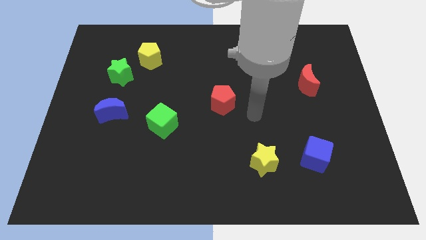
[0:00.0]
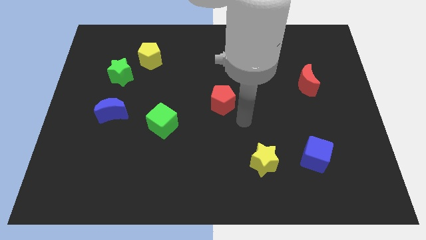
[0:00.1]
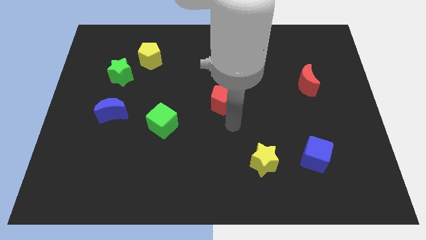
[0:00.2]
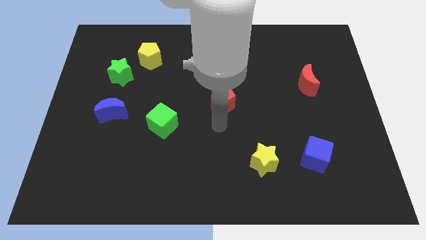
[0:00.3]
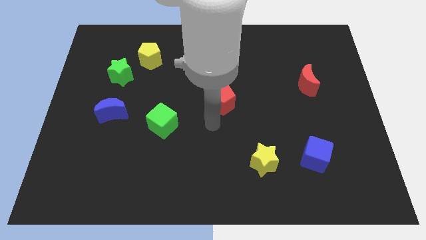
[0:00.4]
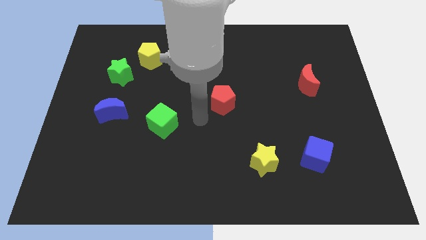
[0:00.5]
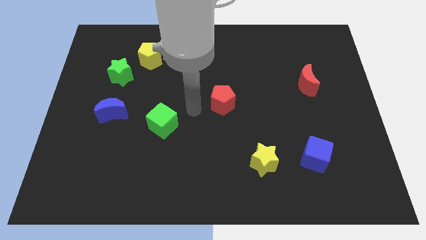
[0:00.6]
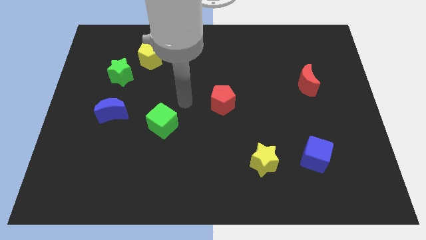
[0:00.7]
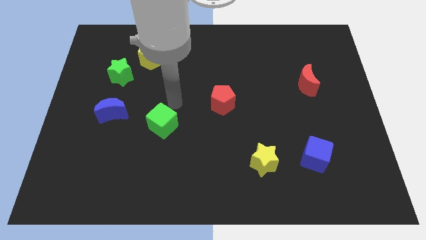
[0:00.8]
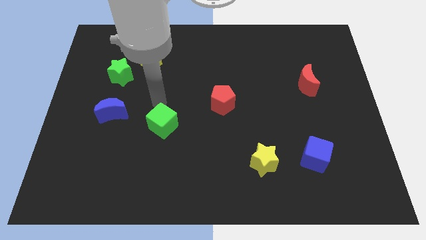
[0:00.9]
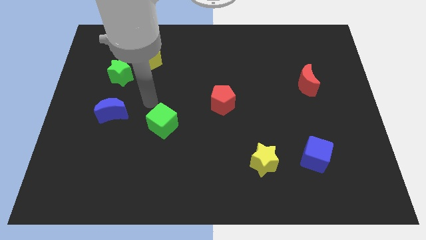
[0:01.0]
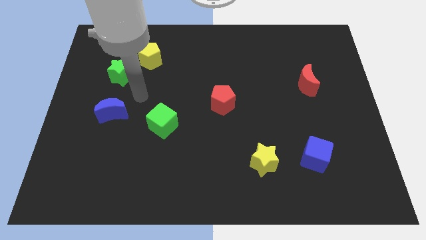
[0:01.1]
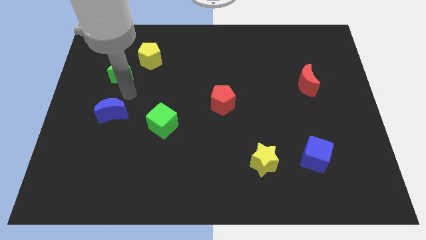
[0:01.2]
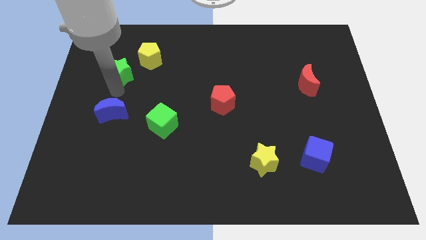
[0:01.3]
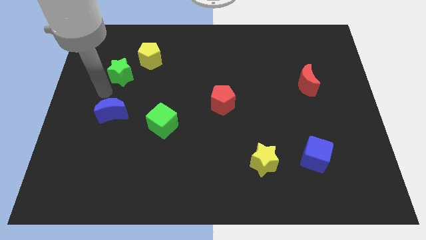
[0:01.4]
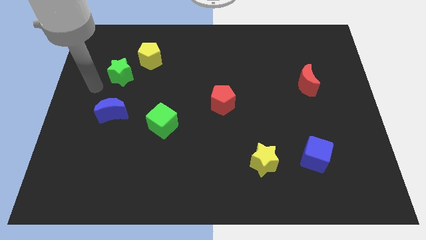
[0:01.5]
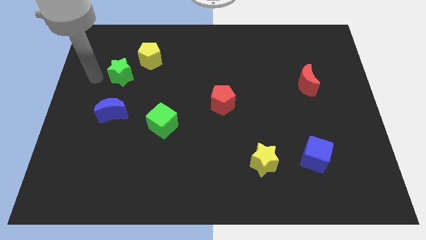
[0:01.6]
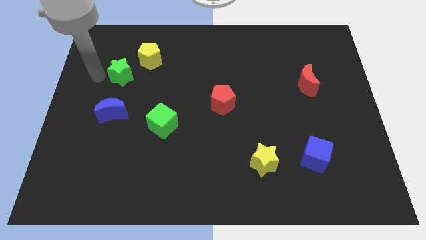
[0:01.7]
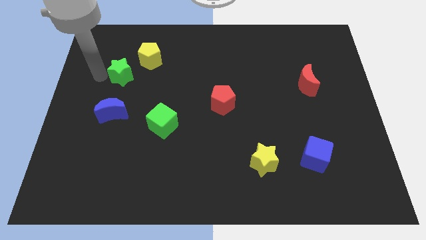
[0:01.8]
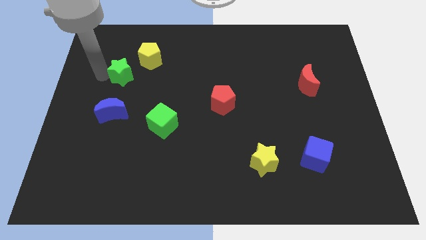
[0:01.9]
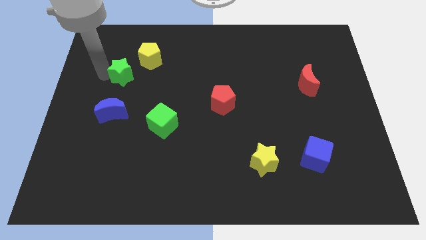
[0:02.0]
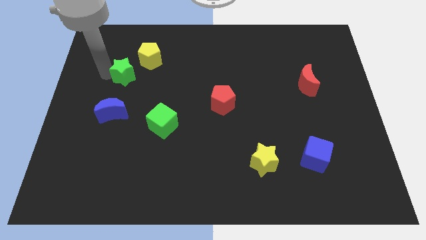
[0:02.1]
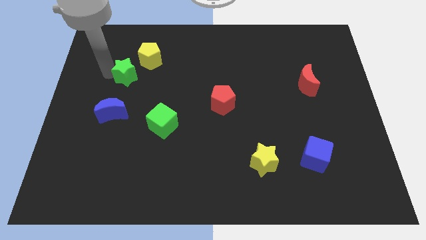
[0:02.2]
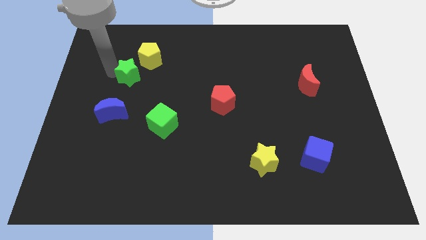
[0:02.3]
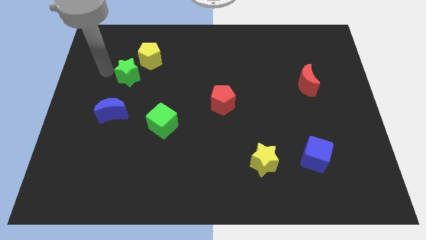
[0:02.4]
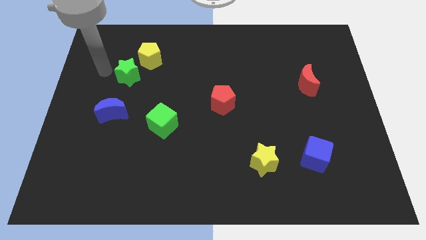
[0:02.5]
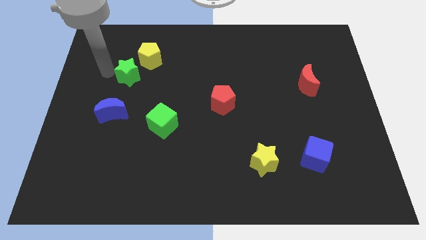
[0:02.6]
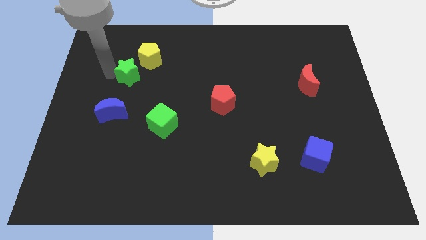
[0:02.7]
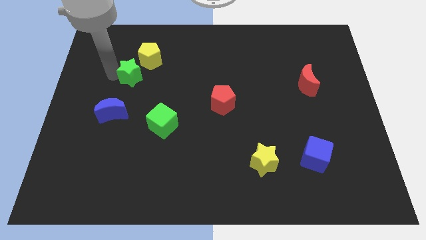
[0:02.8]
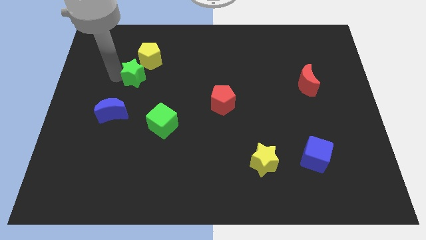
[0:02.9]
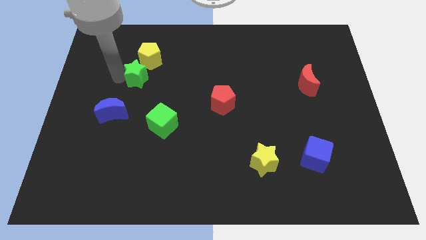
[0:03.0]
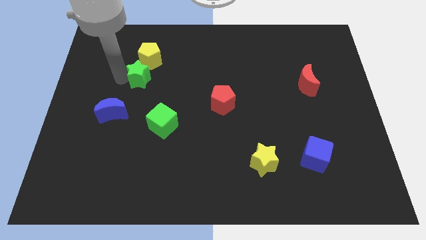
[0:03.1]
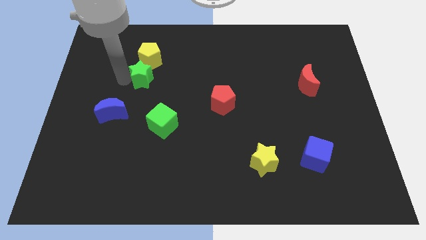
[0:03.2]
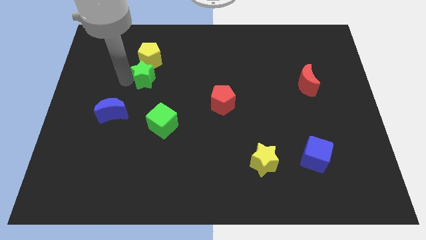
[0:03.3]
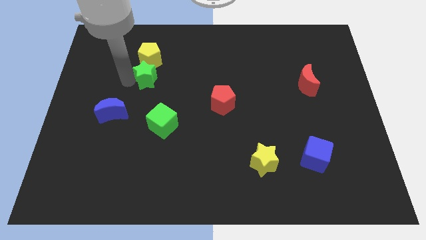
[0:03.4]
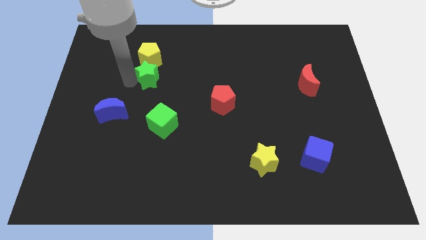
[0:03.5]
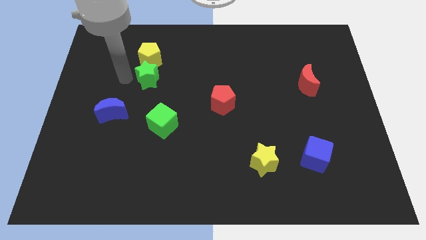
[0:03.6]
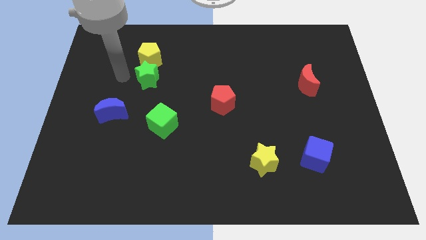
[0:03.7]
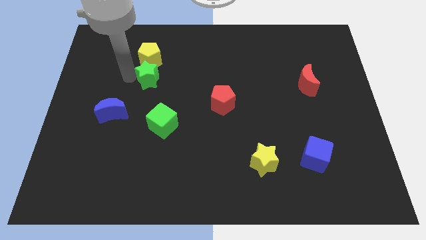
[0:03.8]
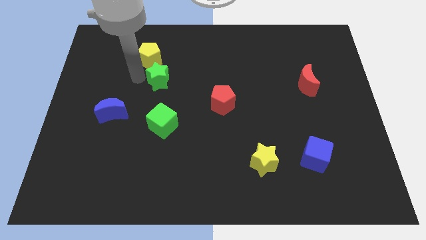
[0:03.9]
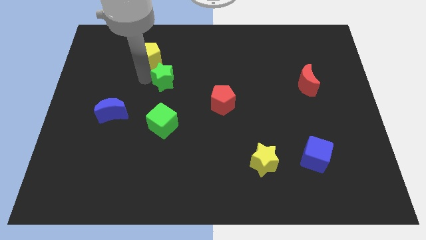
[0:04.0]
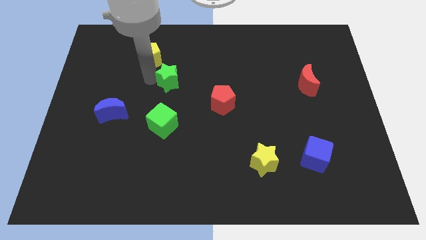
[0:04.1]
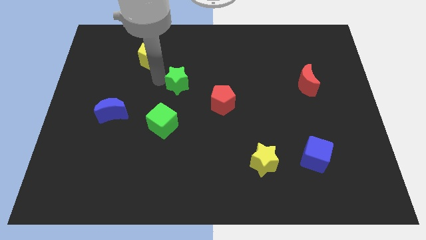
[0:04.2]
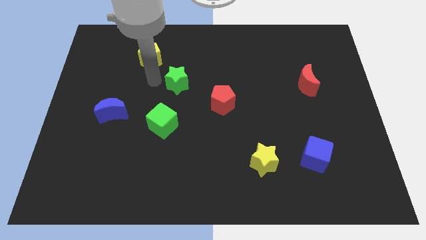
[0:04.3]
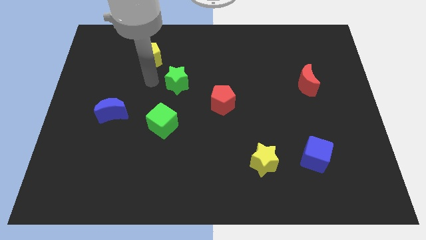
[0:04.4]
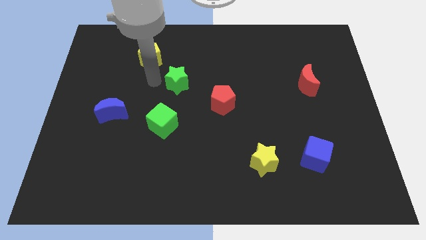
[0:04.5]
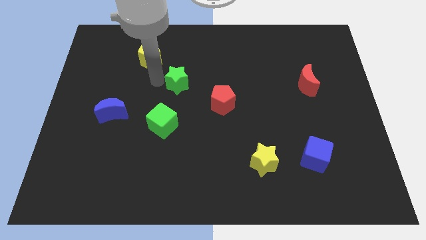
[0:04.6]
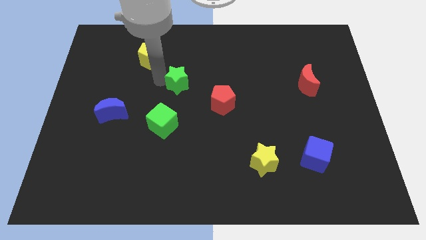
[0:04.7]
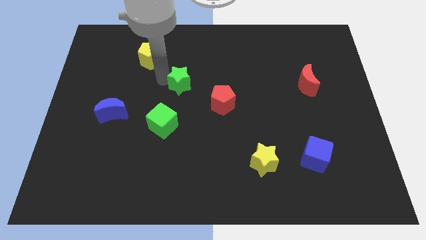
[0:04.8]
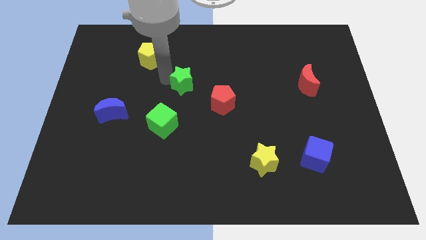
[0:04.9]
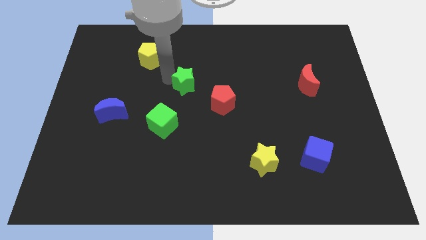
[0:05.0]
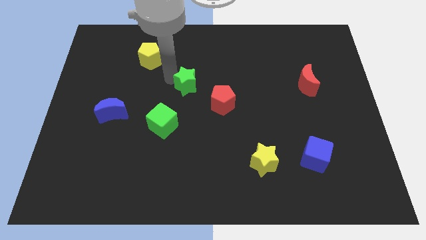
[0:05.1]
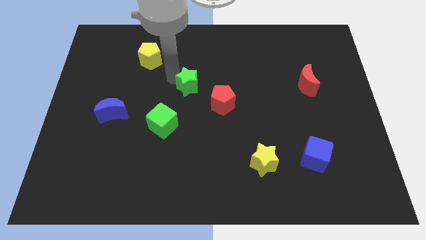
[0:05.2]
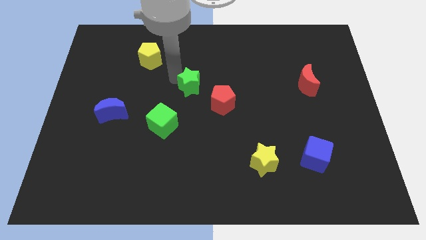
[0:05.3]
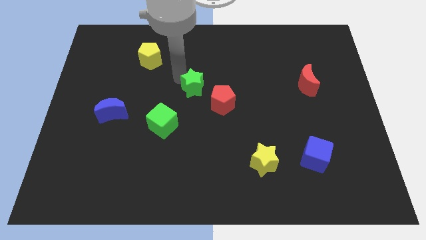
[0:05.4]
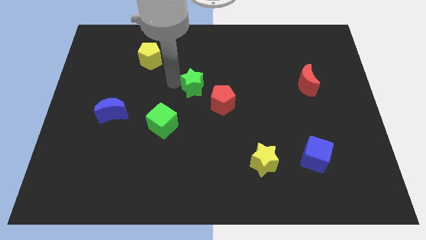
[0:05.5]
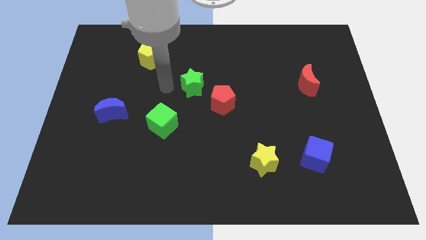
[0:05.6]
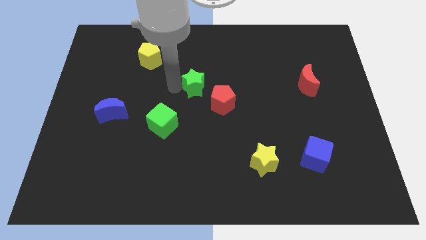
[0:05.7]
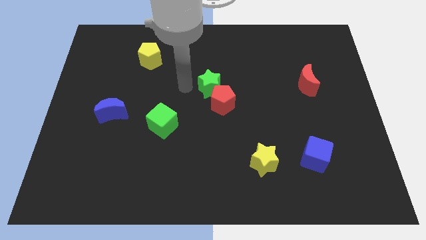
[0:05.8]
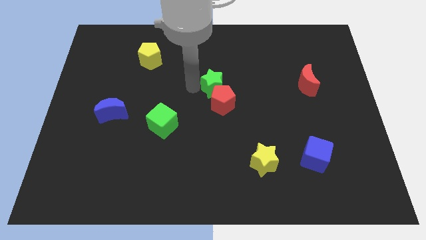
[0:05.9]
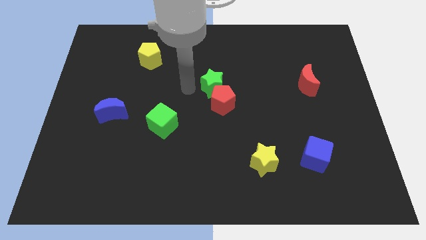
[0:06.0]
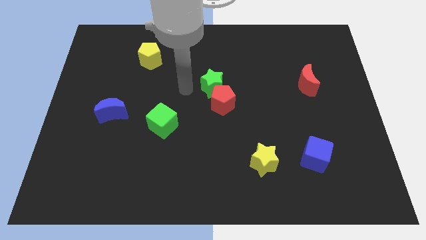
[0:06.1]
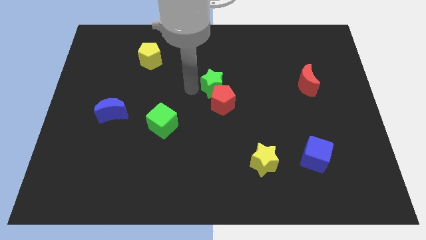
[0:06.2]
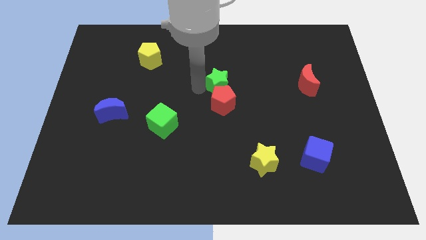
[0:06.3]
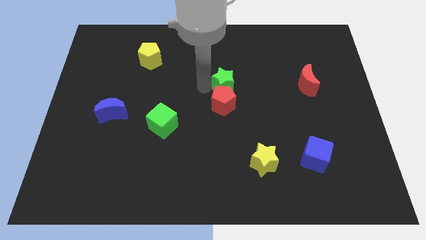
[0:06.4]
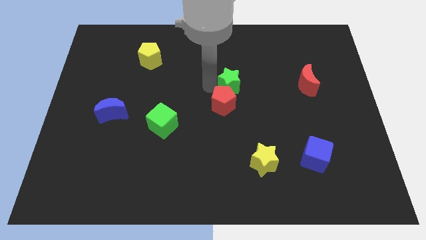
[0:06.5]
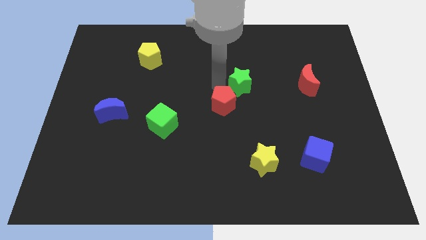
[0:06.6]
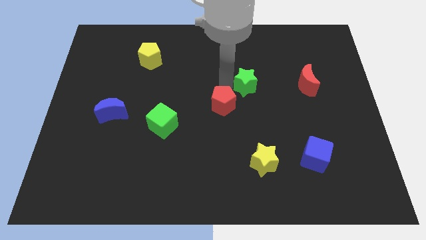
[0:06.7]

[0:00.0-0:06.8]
move the green star to the left of the red moon
